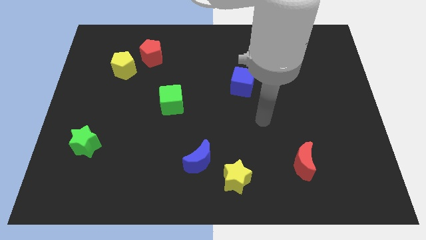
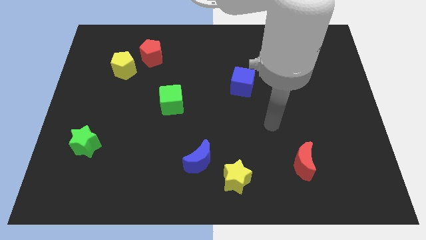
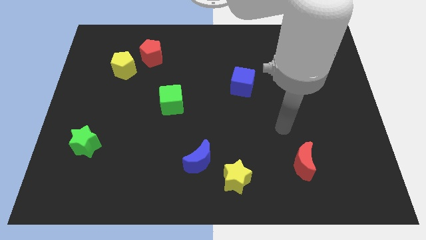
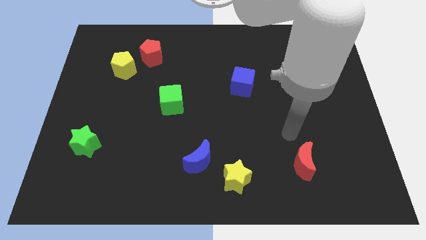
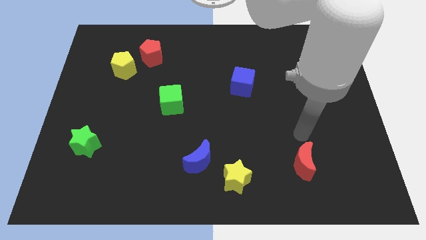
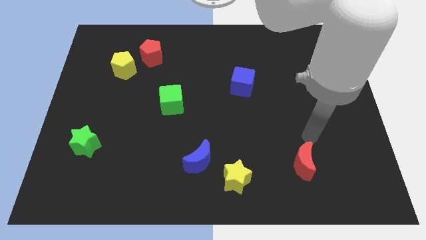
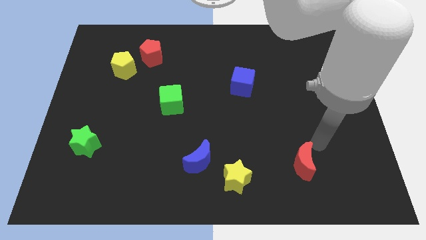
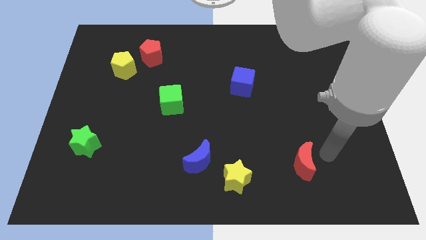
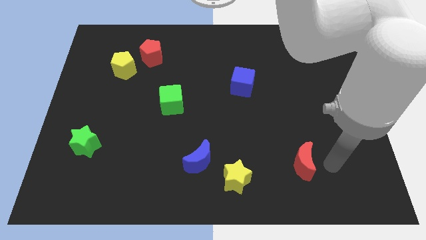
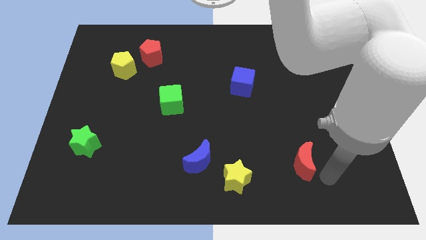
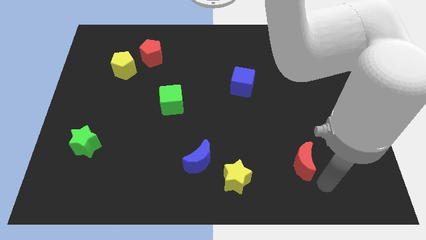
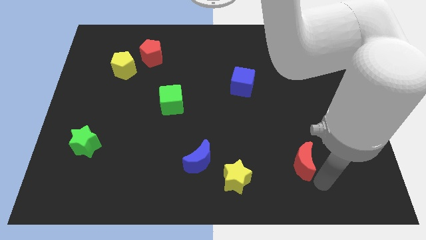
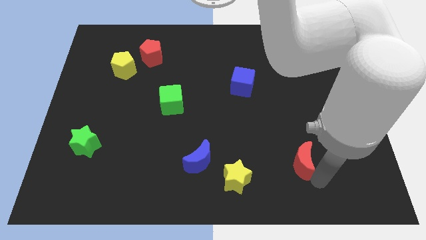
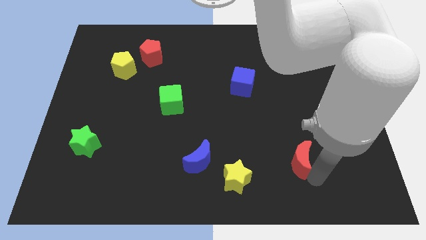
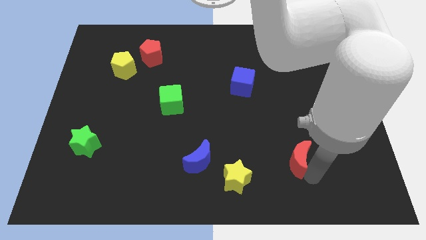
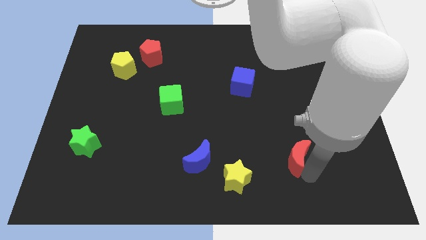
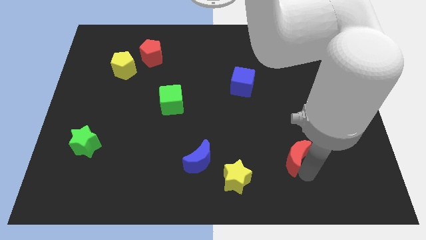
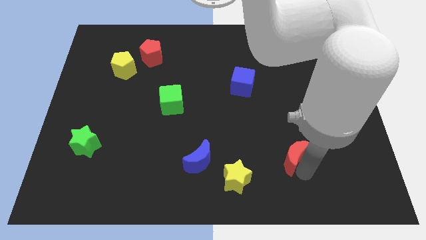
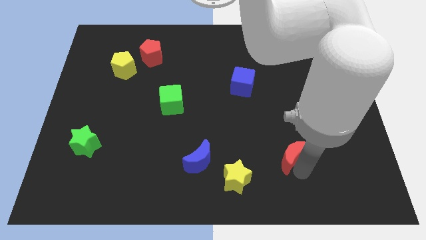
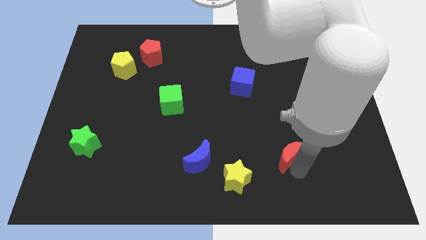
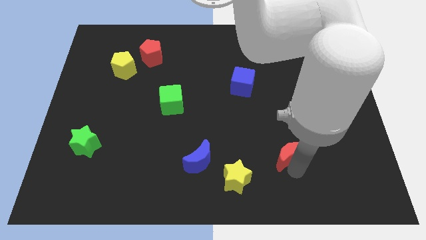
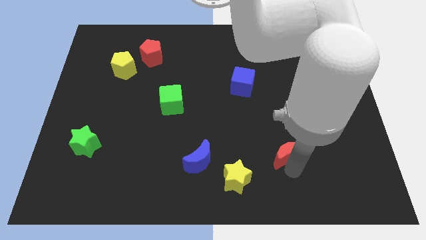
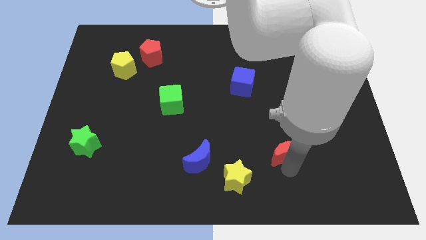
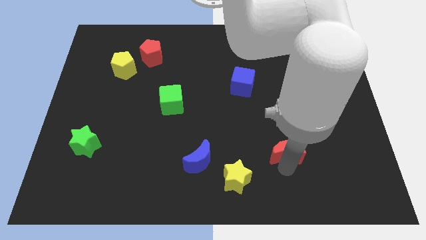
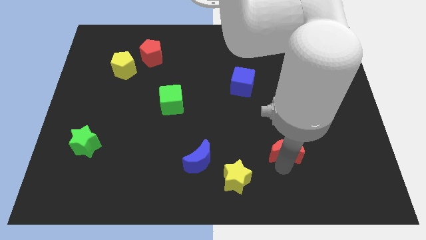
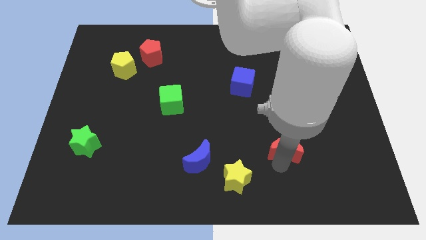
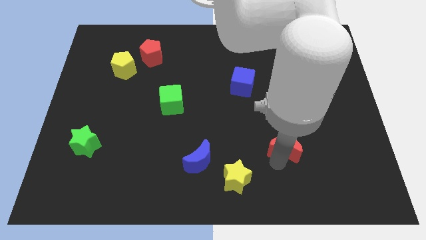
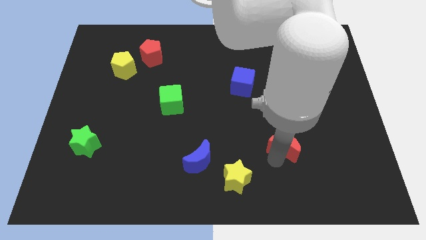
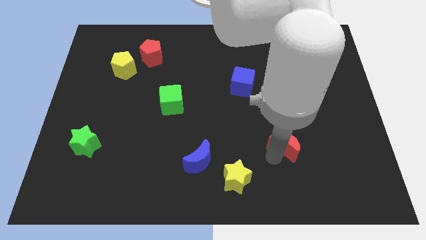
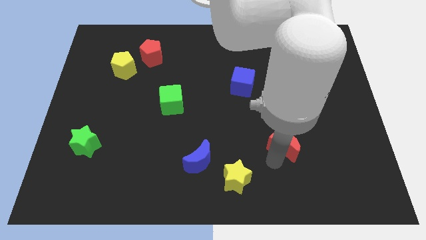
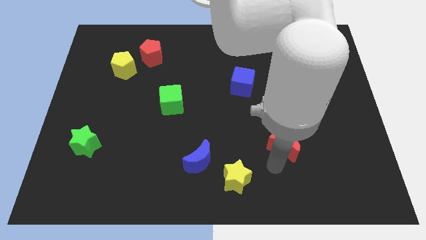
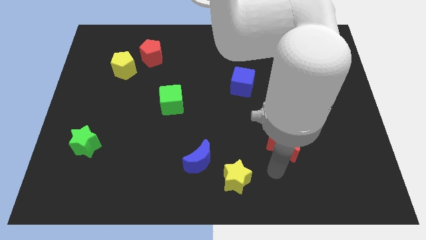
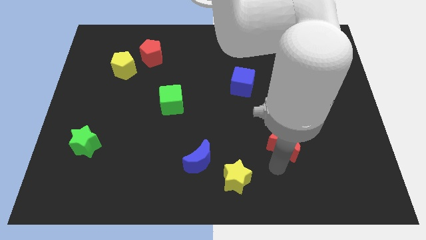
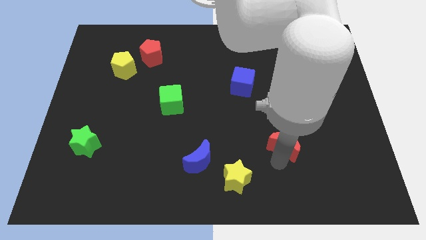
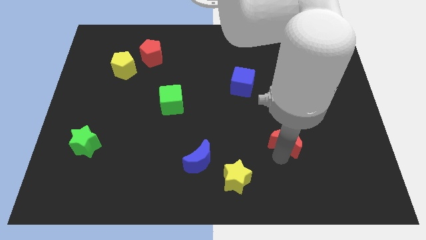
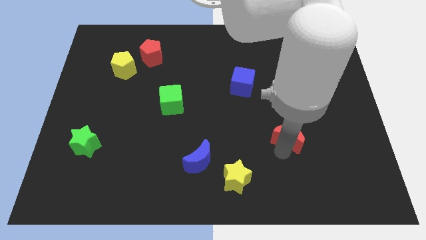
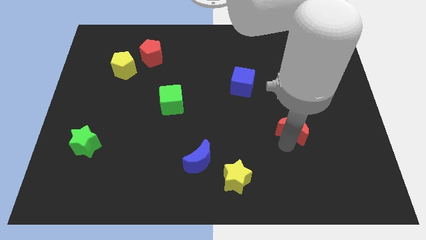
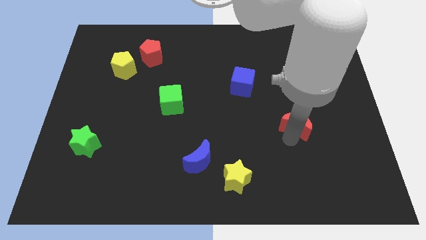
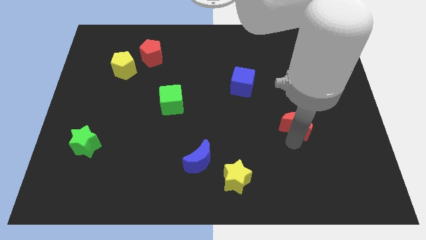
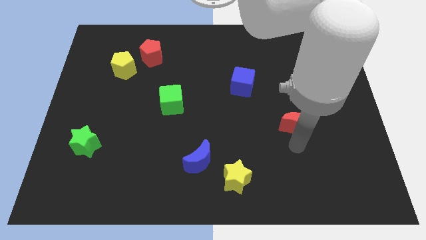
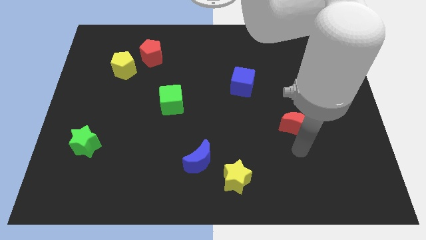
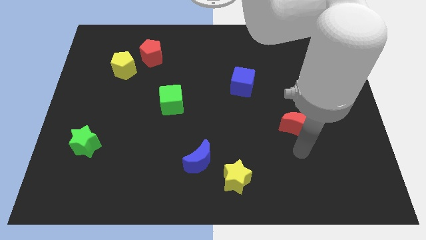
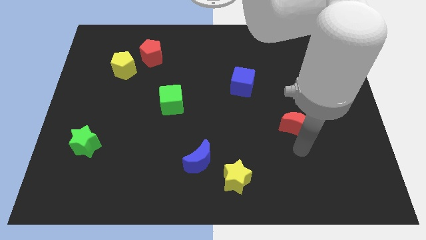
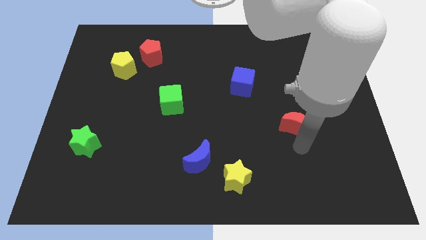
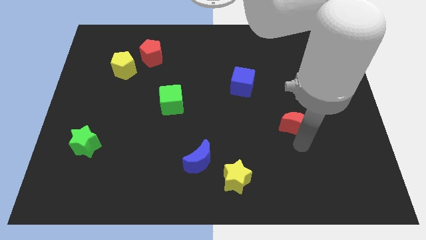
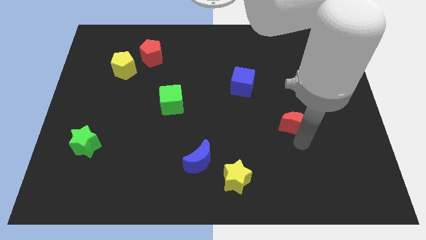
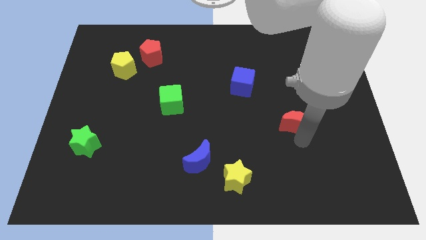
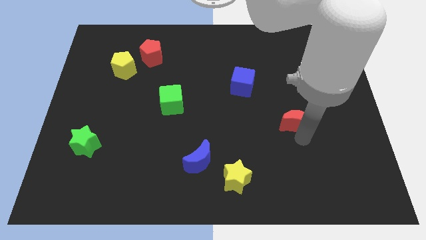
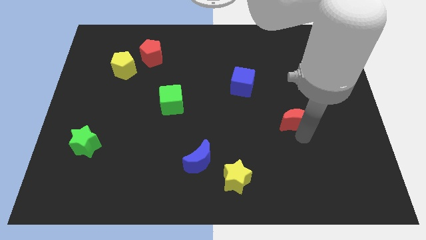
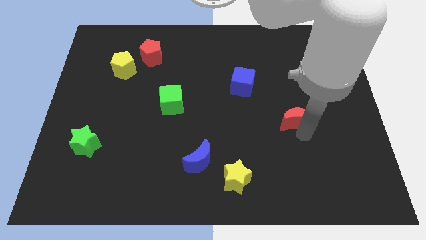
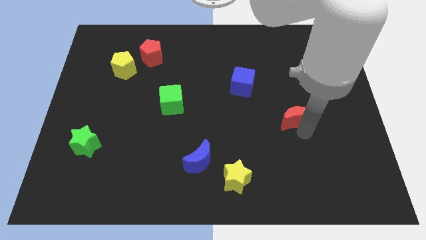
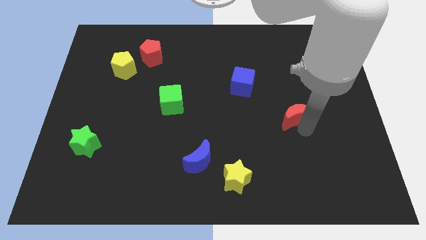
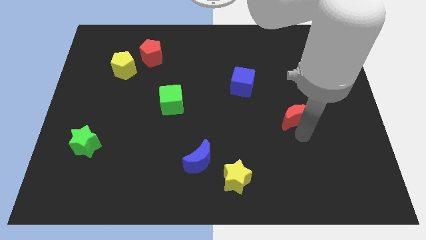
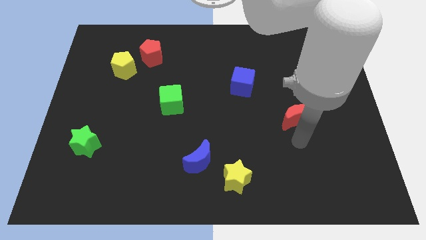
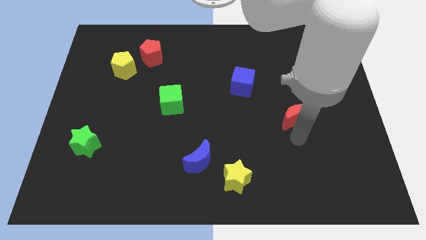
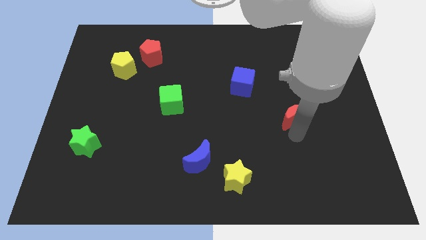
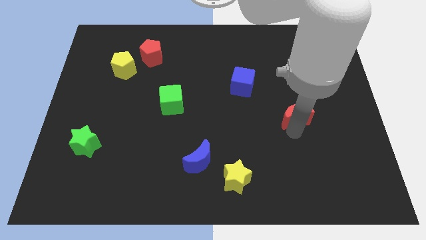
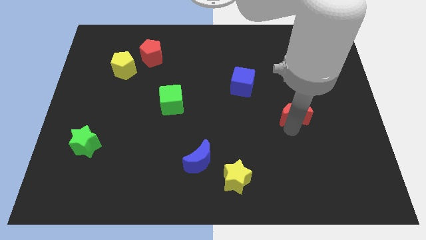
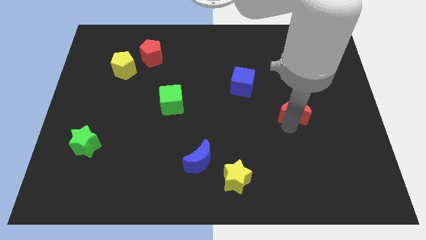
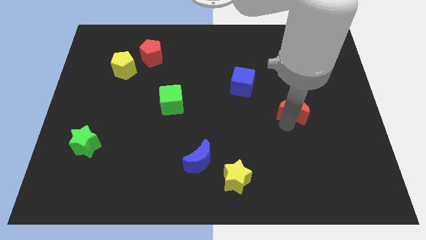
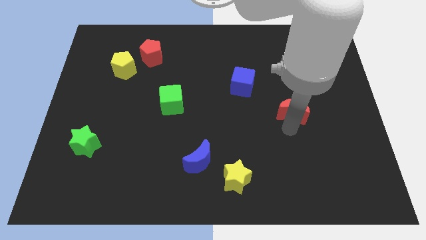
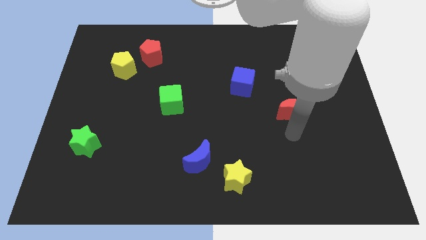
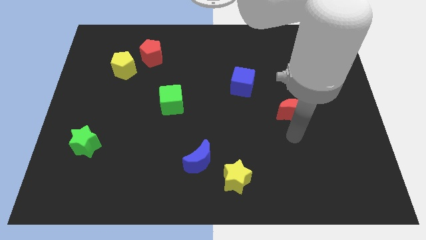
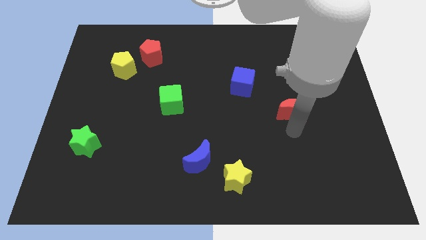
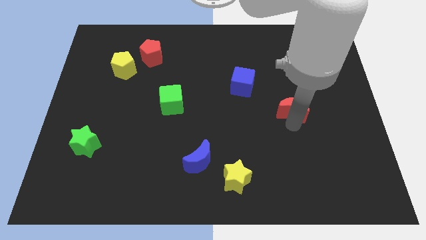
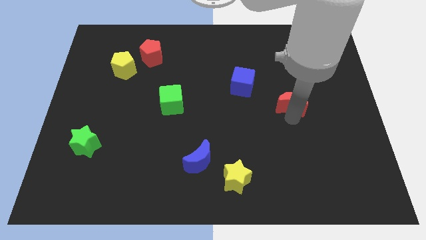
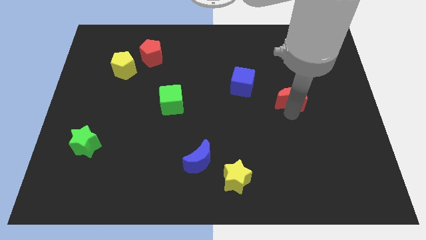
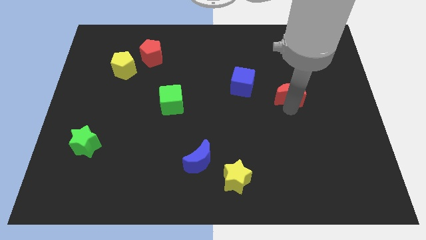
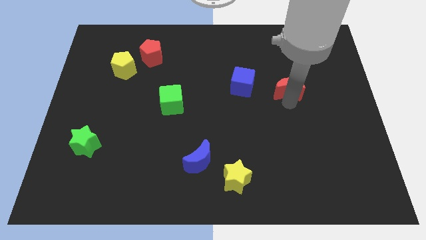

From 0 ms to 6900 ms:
push the red moon up

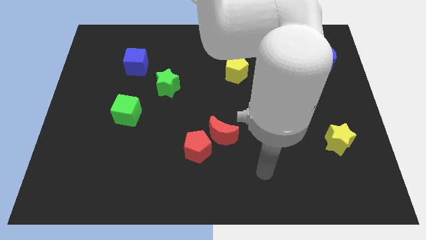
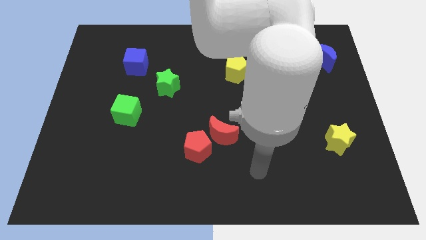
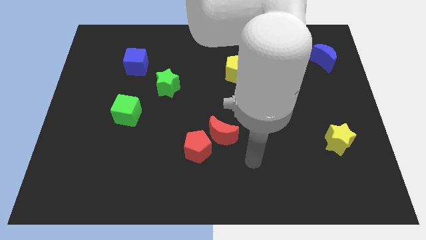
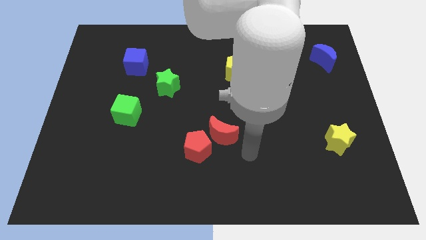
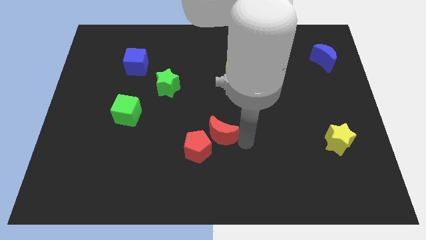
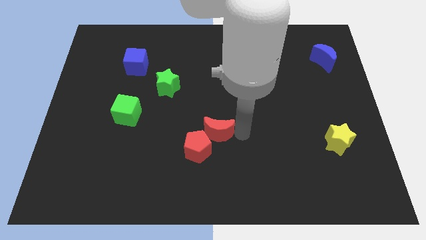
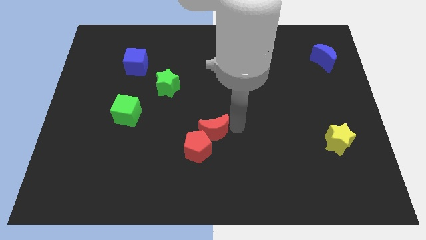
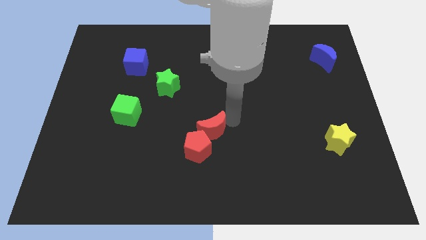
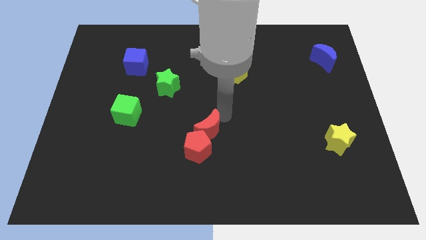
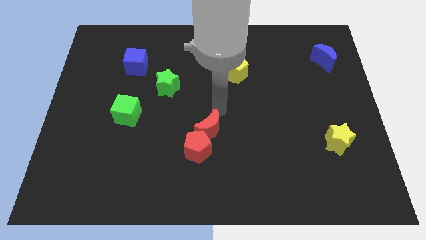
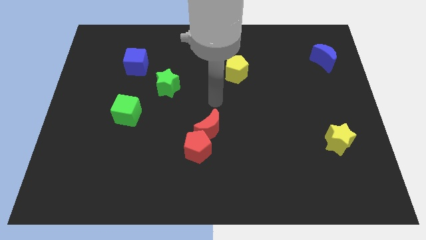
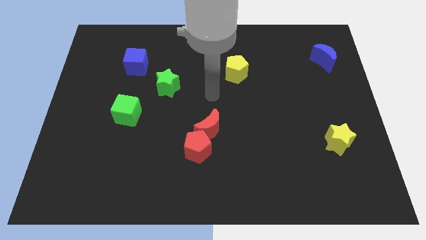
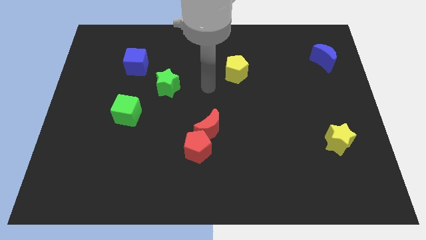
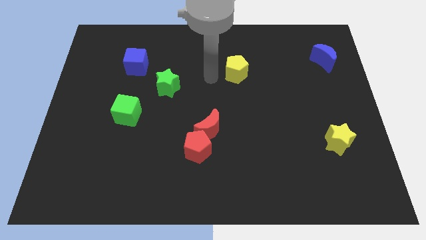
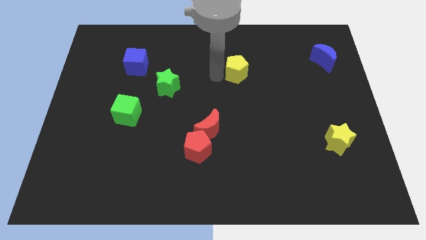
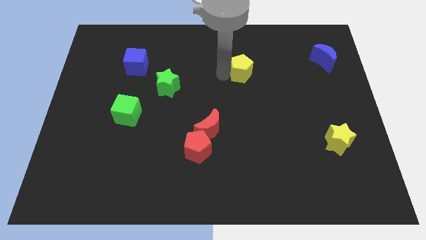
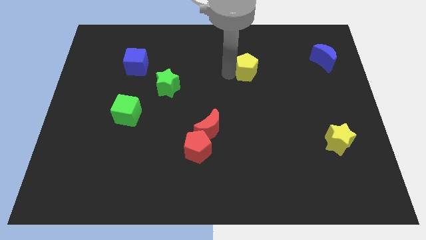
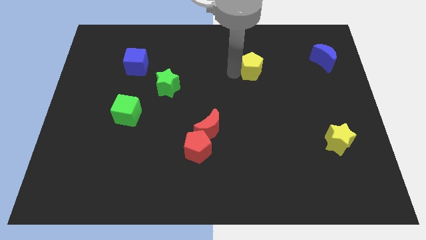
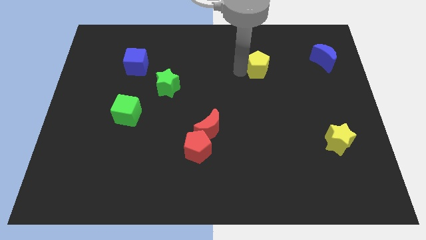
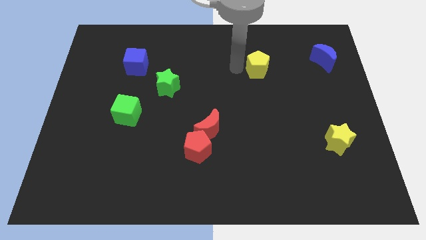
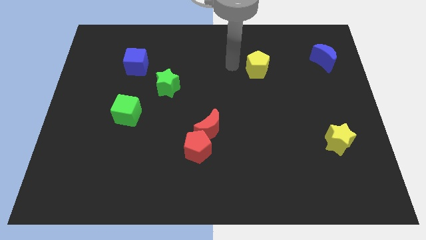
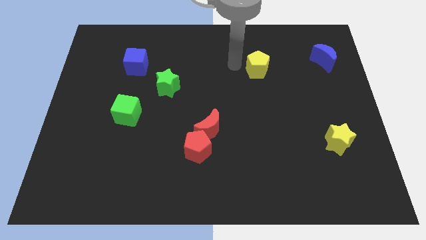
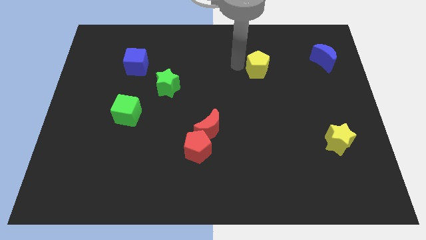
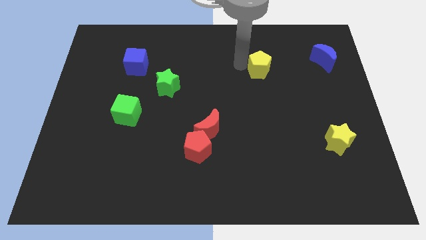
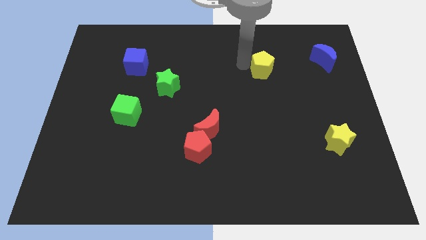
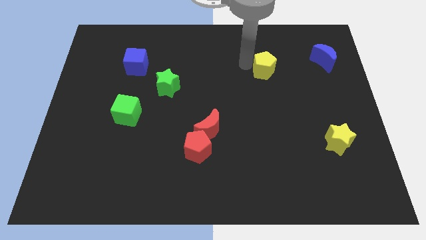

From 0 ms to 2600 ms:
slightly slide the yellow pentagon right
